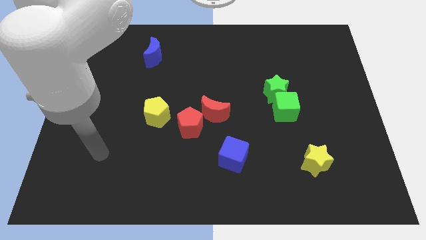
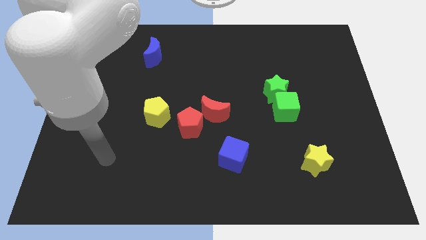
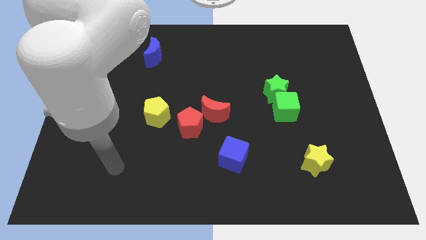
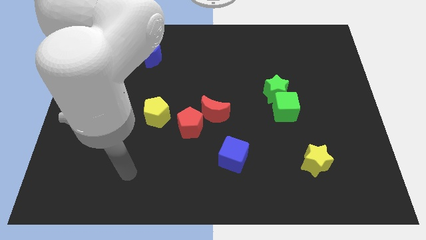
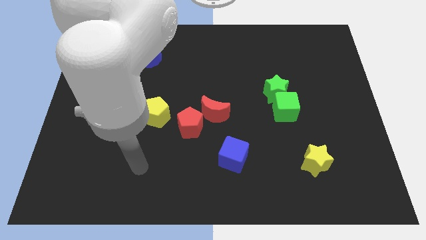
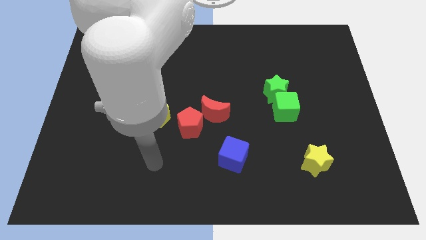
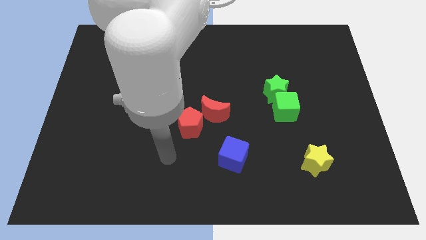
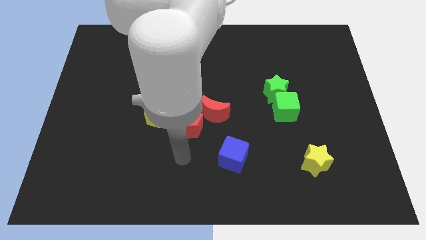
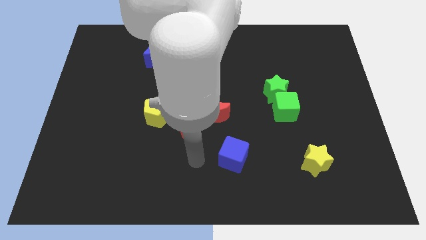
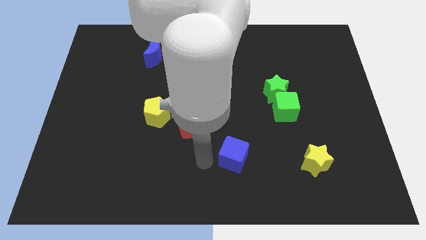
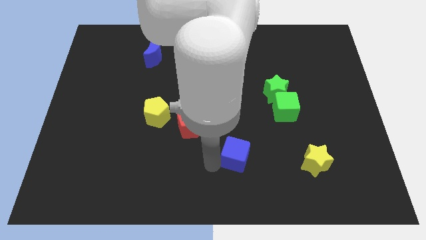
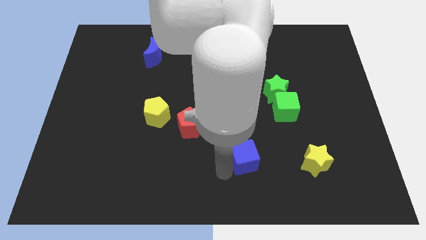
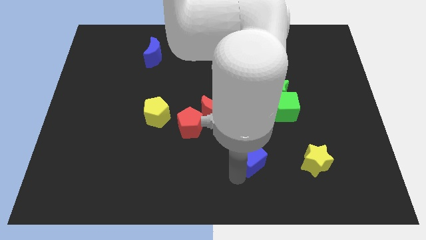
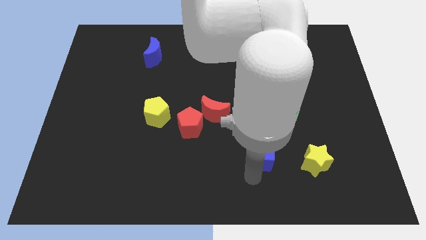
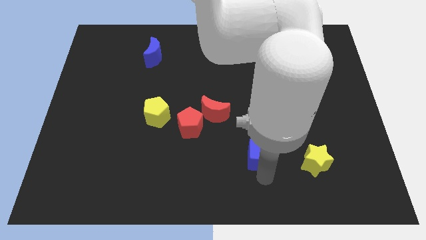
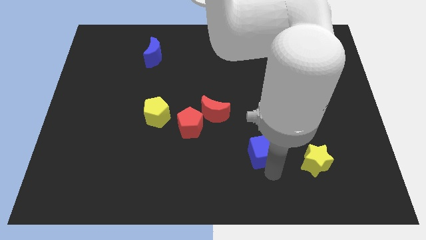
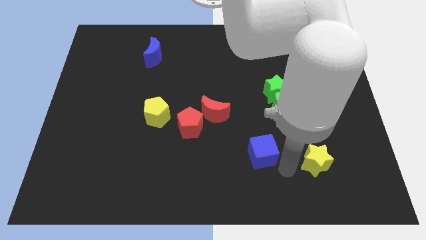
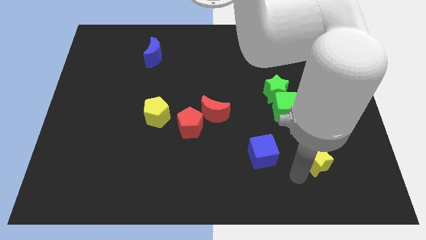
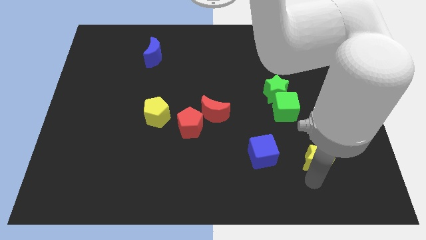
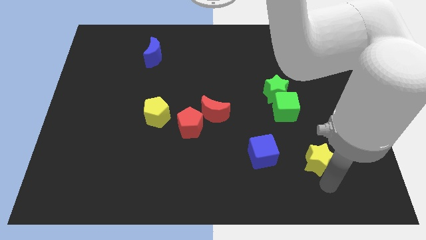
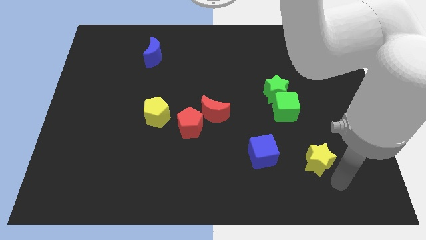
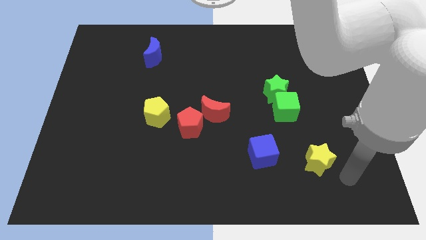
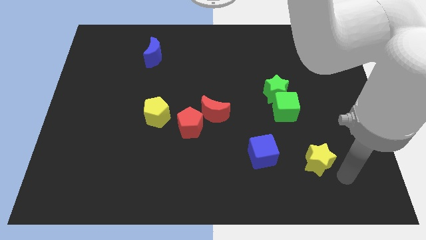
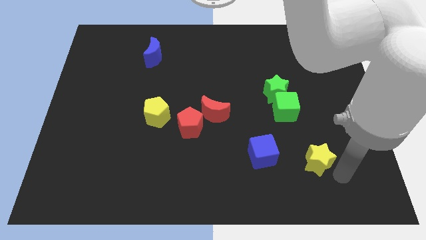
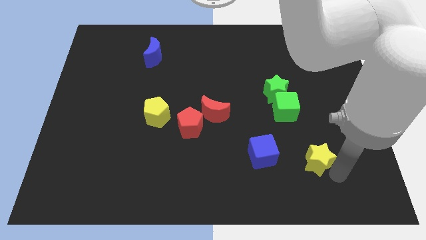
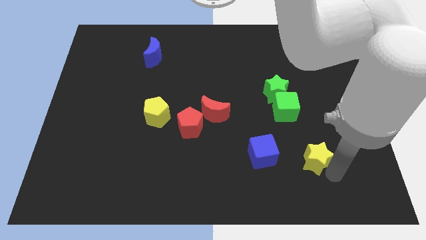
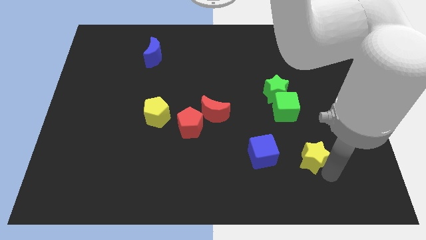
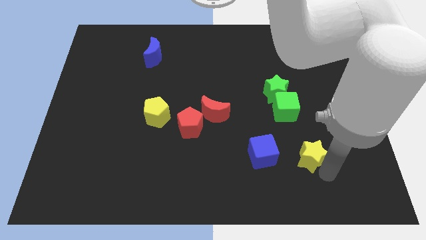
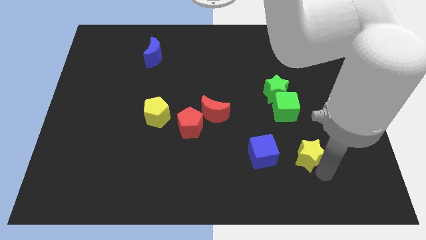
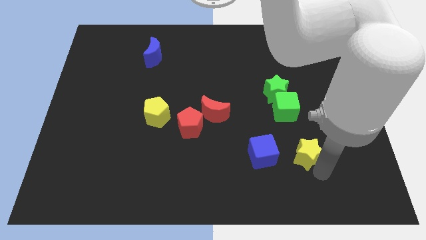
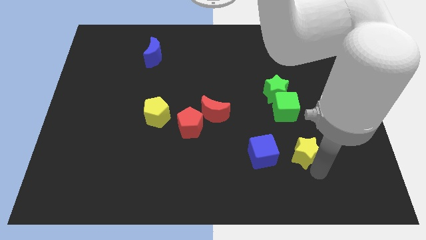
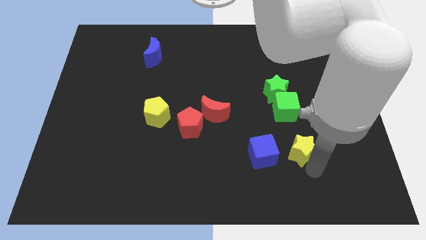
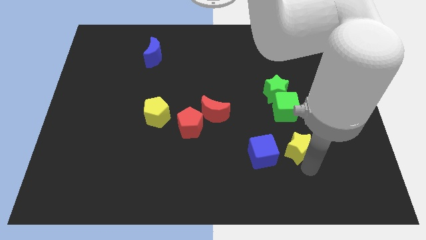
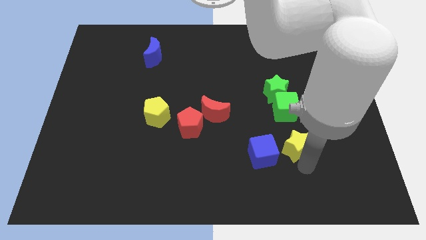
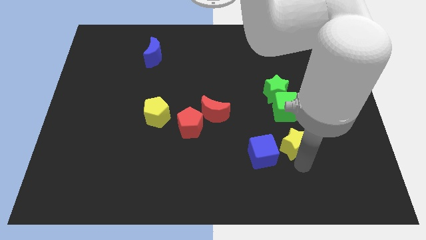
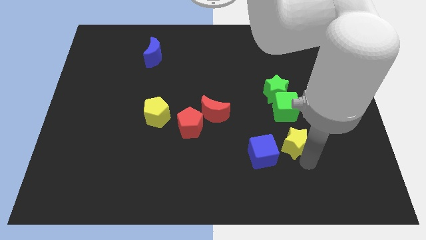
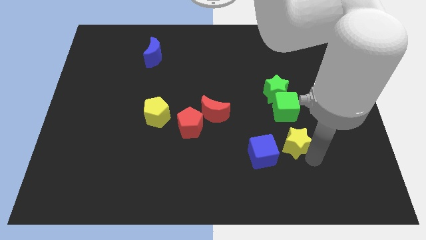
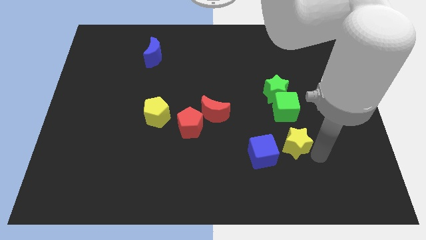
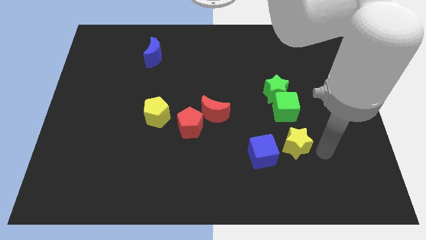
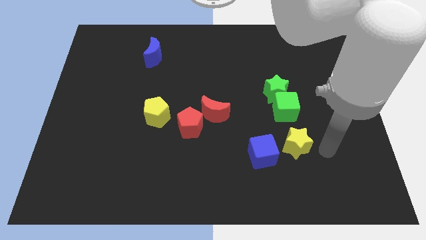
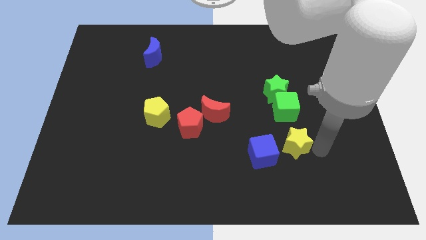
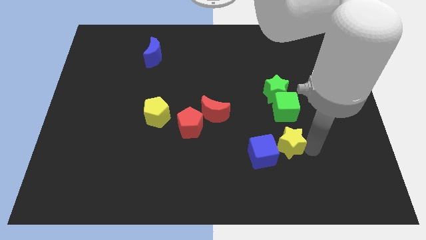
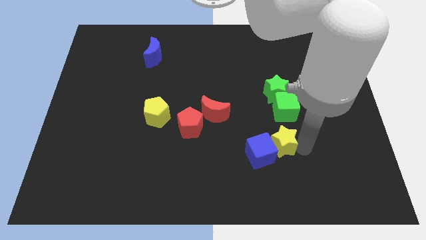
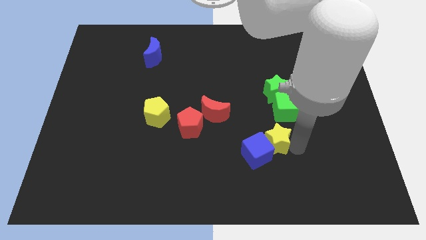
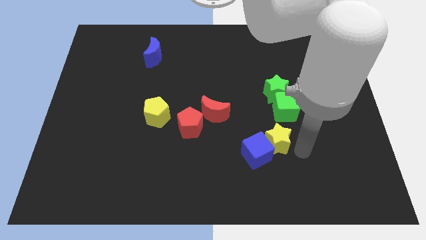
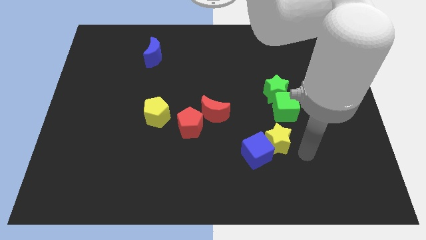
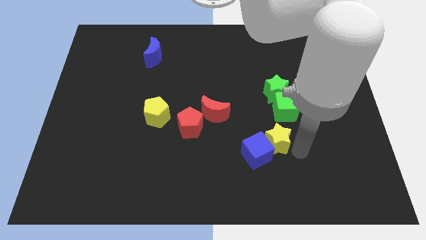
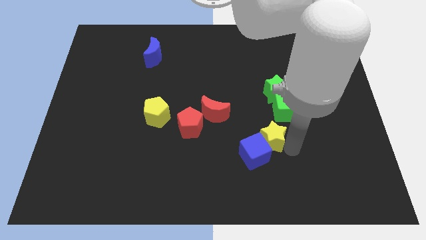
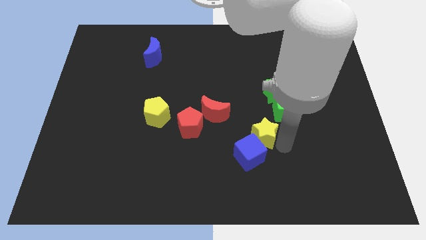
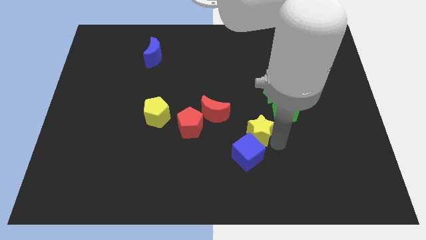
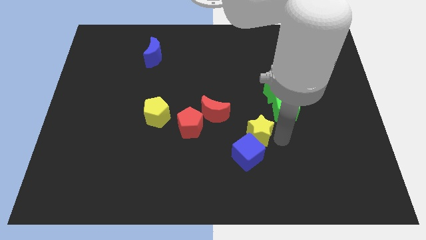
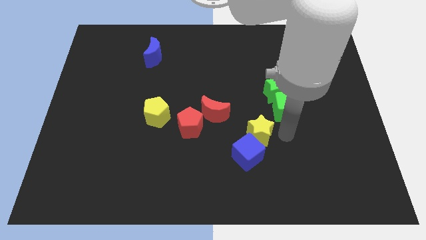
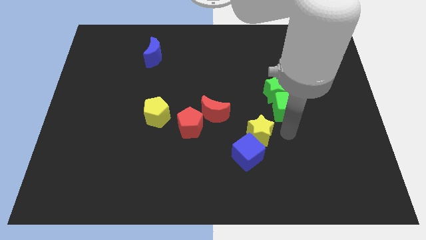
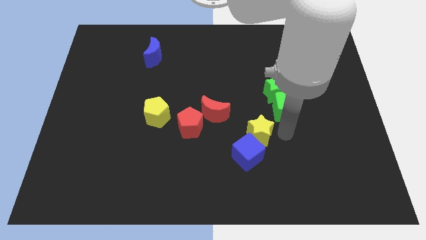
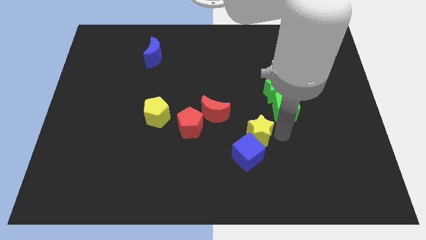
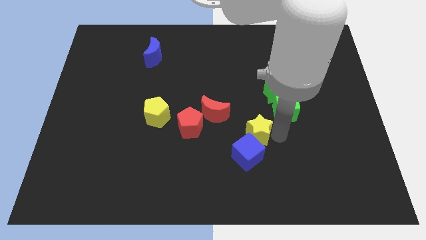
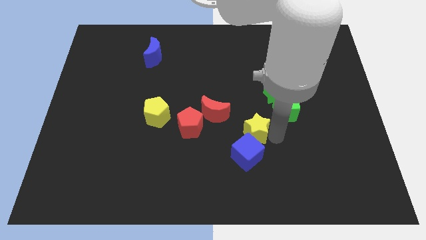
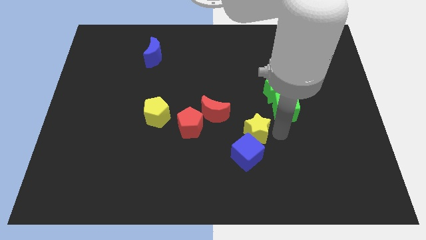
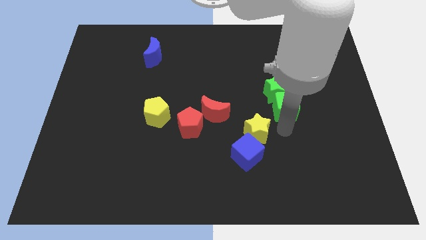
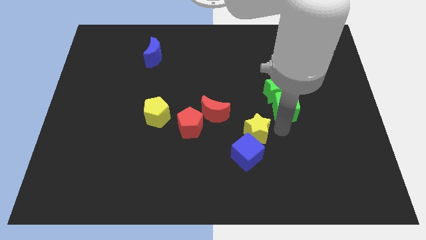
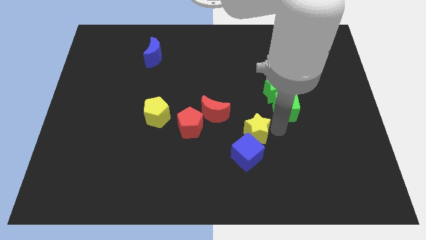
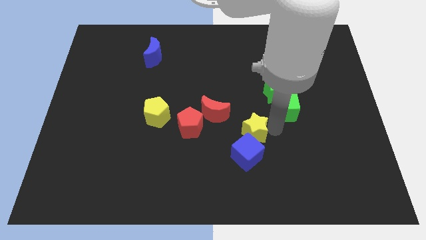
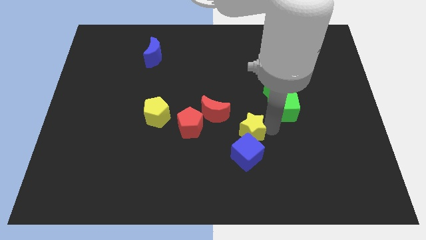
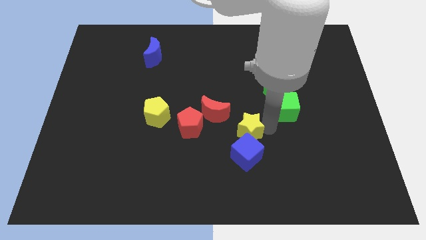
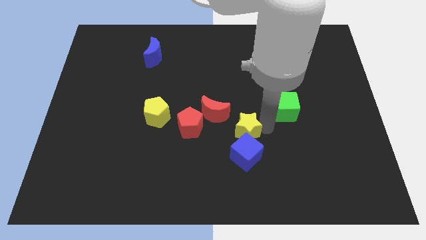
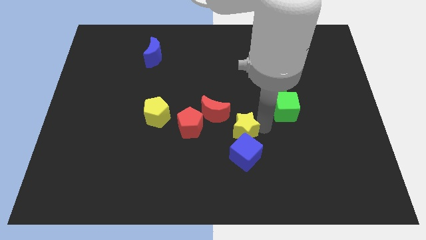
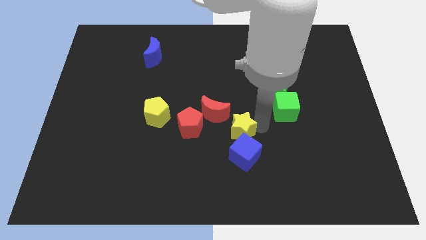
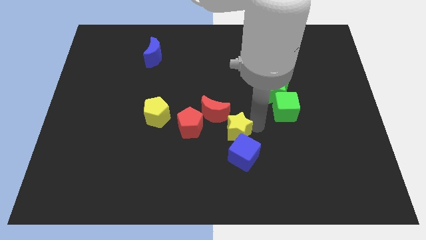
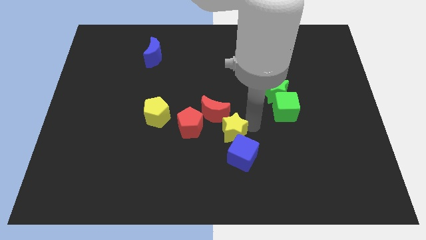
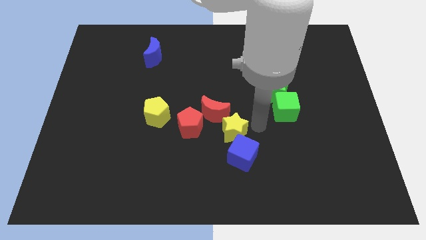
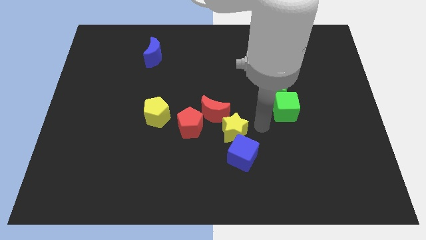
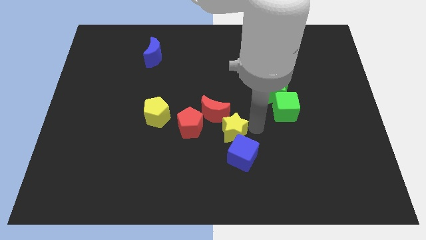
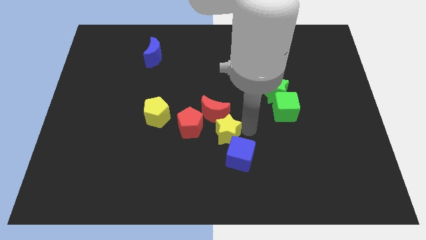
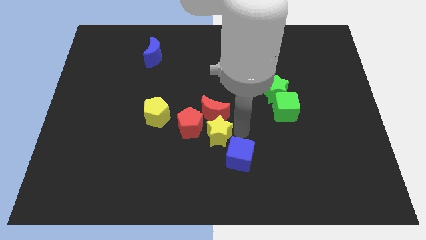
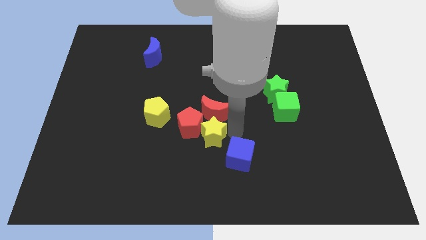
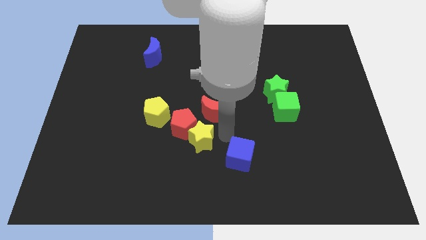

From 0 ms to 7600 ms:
put the yellow star to the bottom right side of the yellow pentagon
